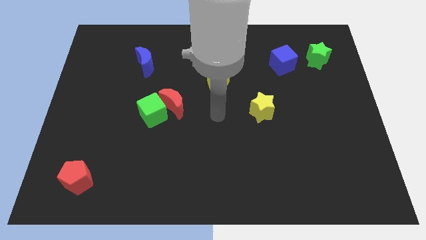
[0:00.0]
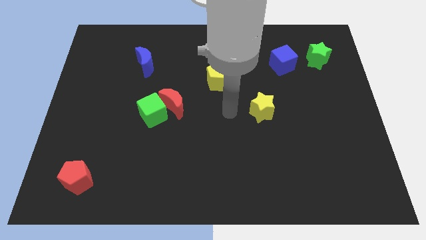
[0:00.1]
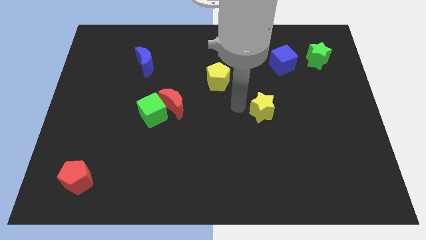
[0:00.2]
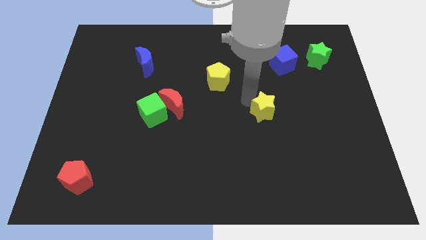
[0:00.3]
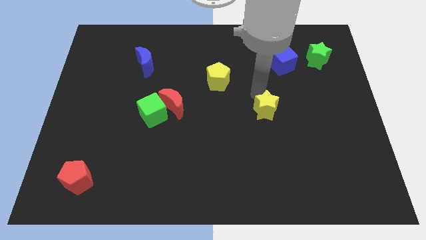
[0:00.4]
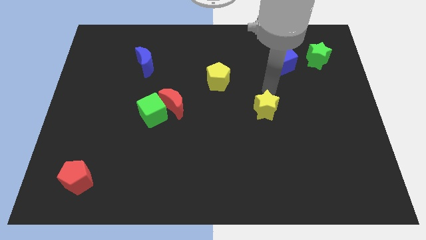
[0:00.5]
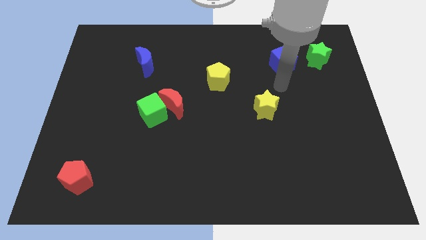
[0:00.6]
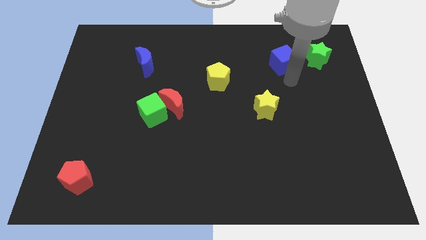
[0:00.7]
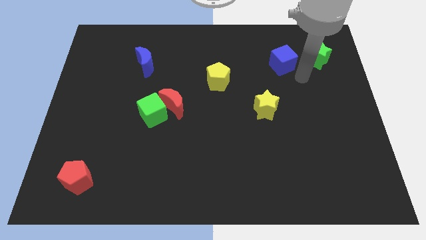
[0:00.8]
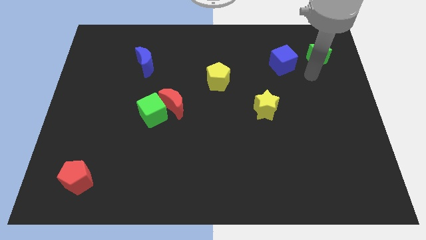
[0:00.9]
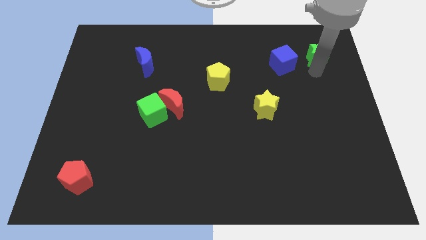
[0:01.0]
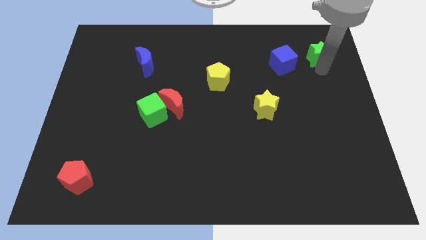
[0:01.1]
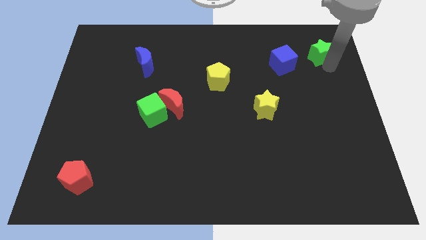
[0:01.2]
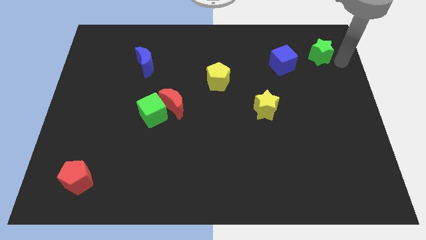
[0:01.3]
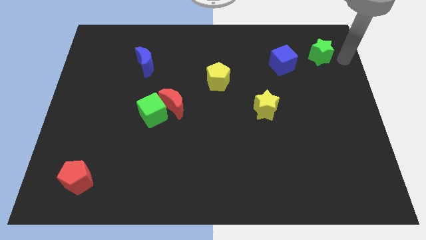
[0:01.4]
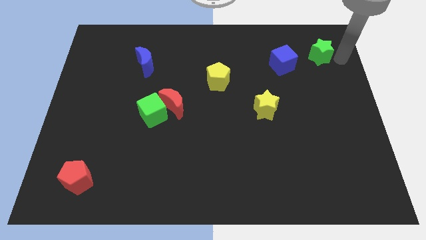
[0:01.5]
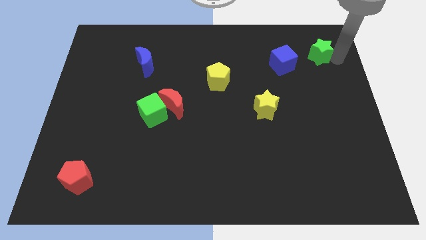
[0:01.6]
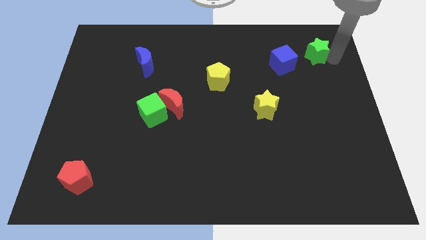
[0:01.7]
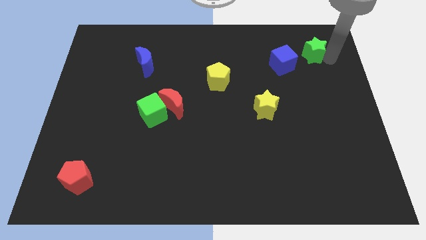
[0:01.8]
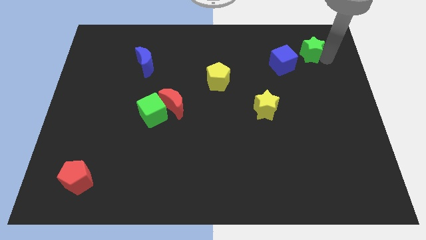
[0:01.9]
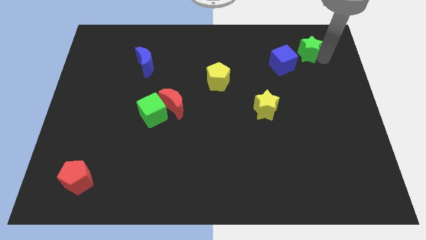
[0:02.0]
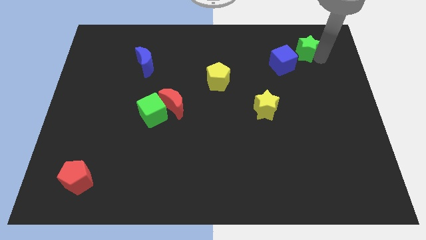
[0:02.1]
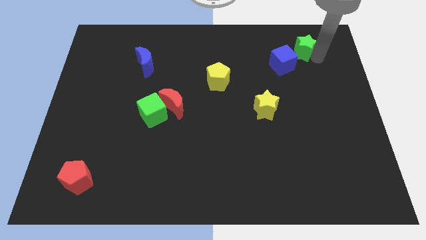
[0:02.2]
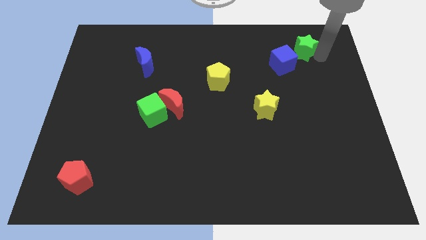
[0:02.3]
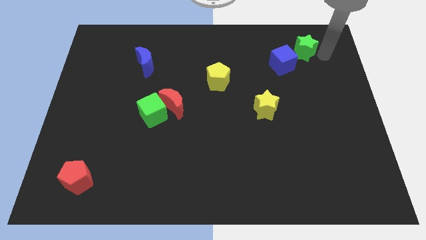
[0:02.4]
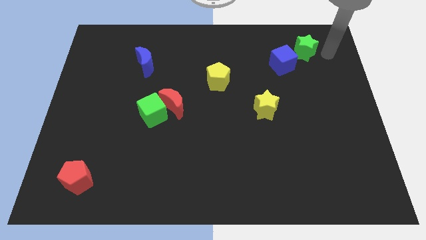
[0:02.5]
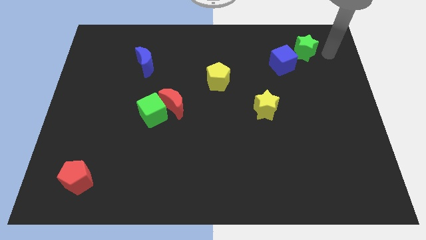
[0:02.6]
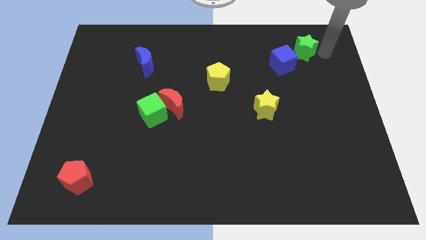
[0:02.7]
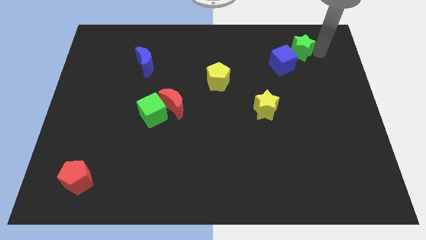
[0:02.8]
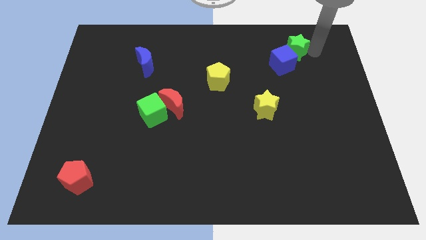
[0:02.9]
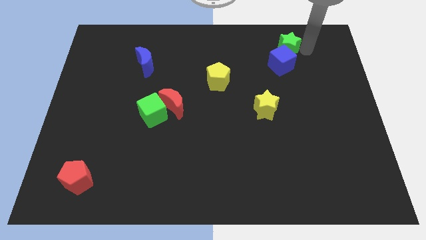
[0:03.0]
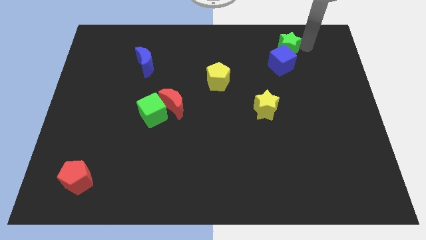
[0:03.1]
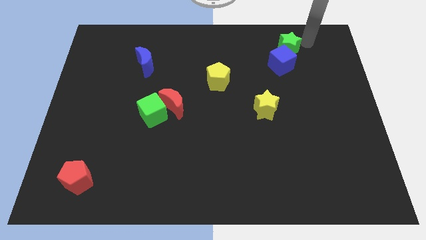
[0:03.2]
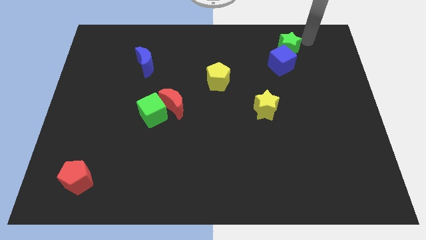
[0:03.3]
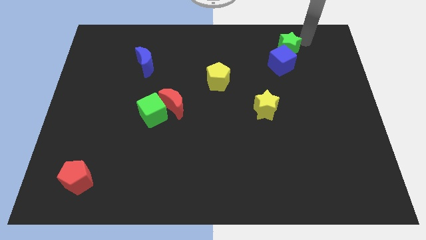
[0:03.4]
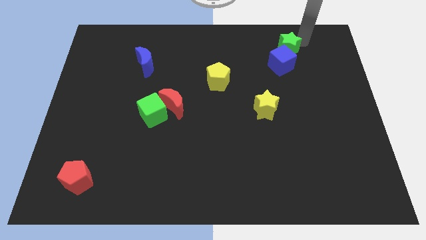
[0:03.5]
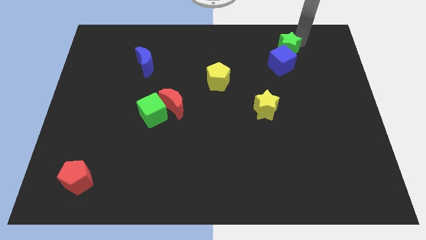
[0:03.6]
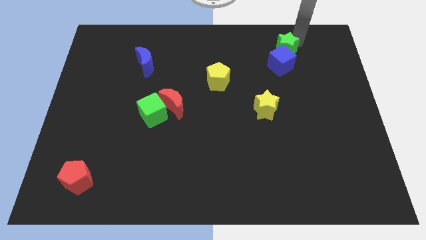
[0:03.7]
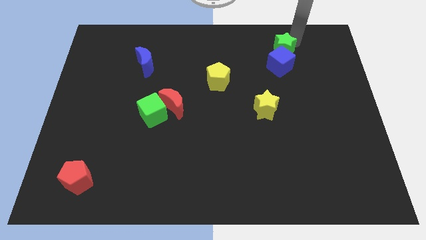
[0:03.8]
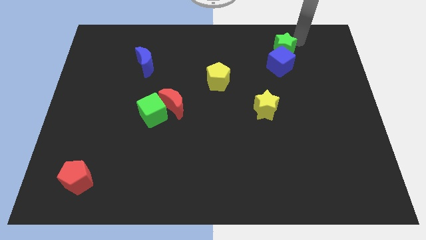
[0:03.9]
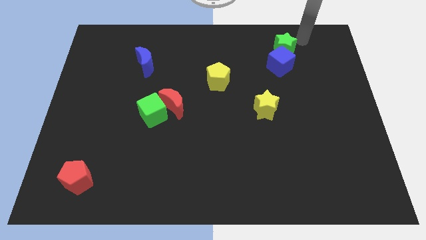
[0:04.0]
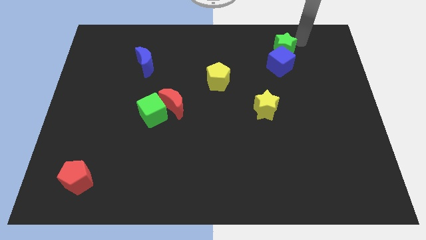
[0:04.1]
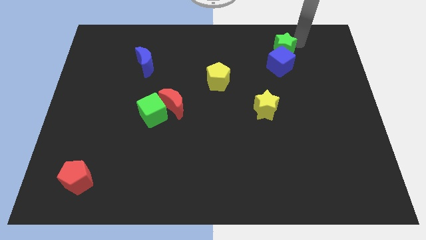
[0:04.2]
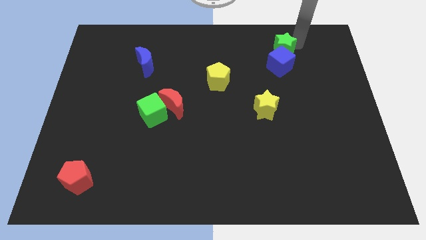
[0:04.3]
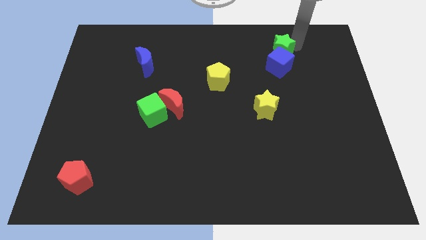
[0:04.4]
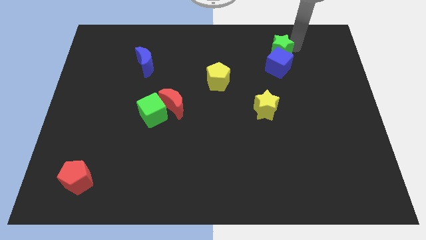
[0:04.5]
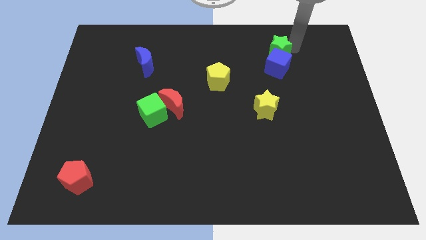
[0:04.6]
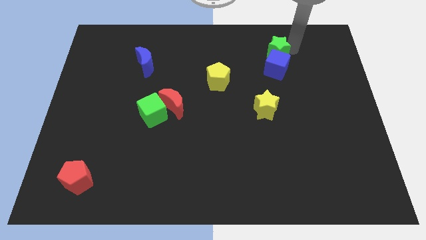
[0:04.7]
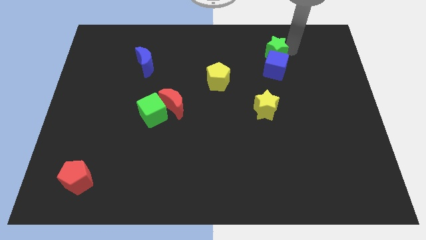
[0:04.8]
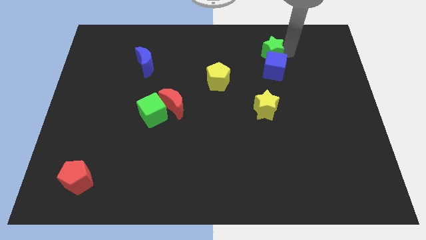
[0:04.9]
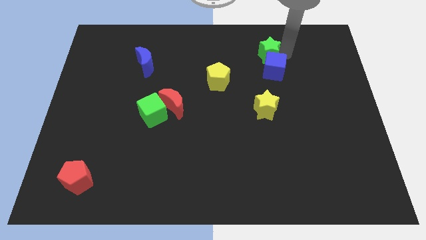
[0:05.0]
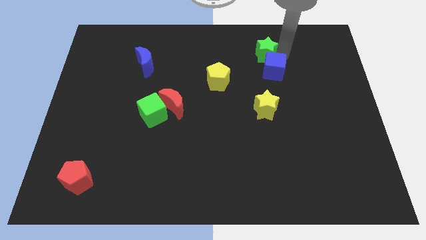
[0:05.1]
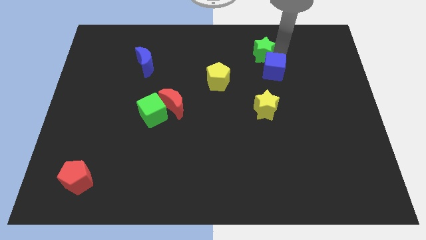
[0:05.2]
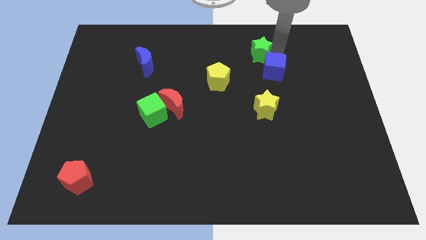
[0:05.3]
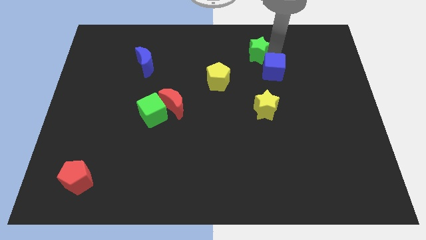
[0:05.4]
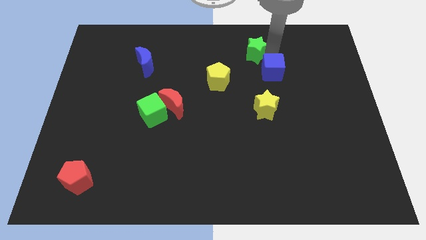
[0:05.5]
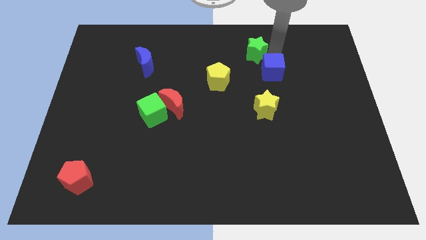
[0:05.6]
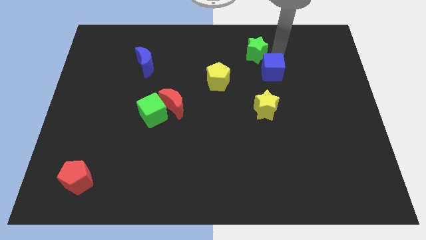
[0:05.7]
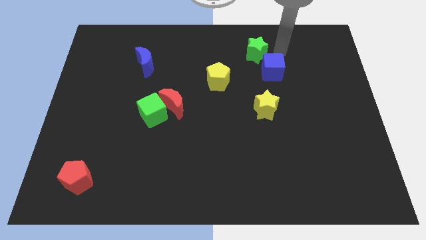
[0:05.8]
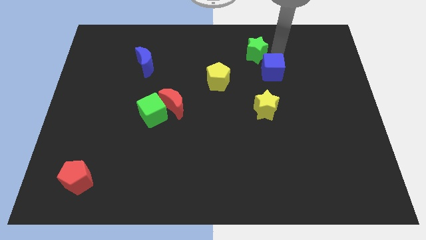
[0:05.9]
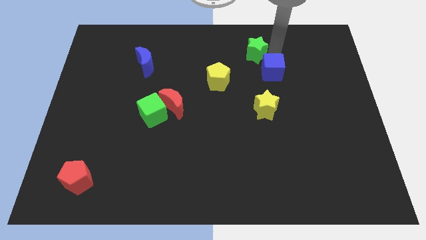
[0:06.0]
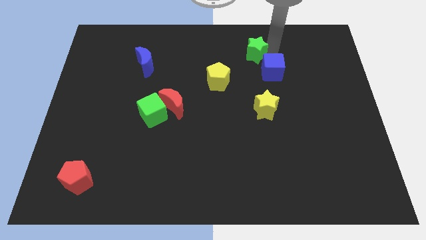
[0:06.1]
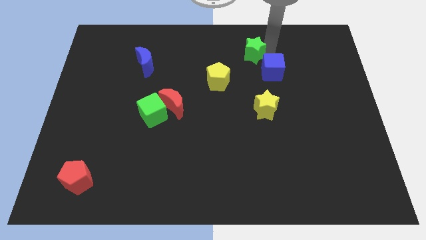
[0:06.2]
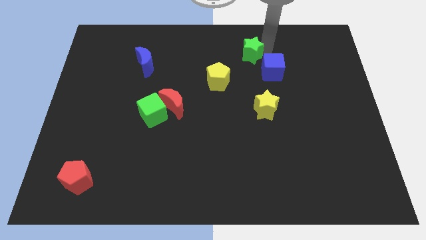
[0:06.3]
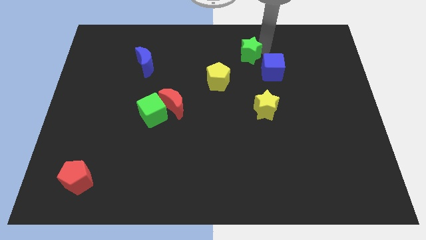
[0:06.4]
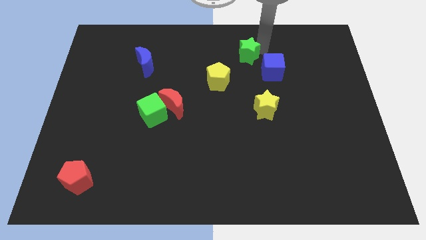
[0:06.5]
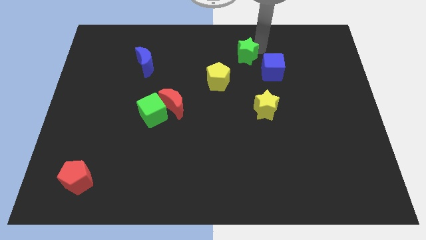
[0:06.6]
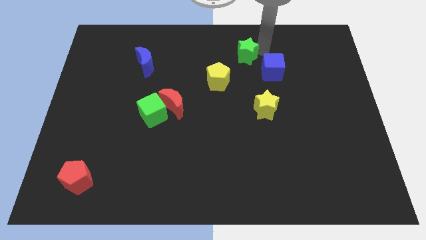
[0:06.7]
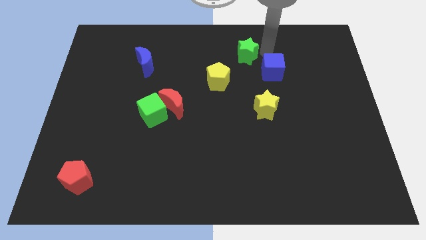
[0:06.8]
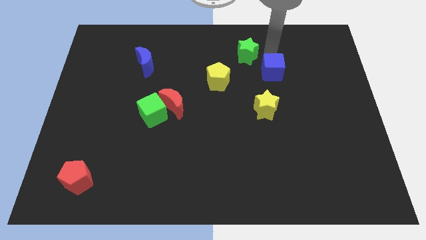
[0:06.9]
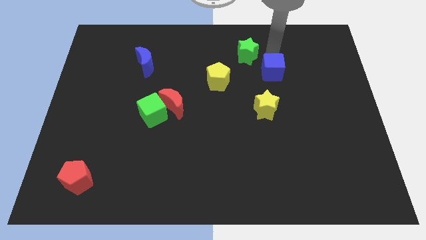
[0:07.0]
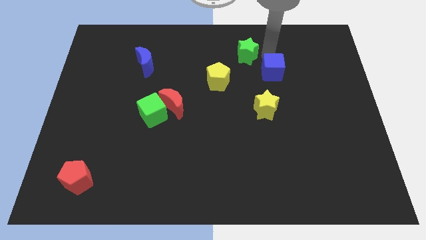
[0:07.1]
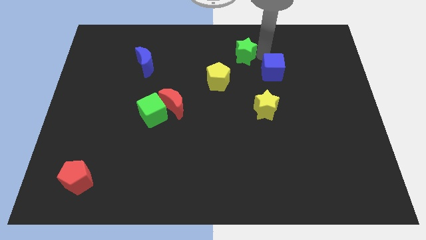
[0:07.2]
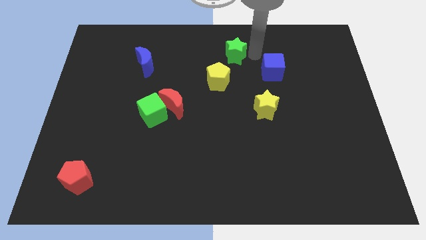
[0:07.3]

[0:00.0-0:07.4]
push the green star to the left

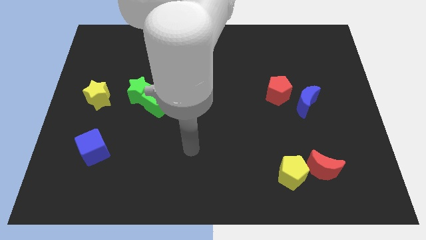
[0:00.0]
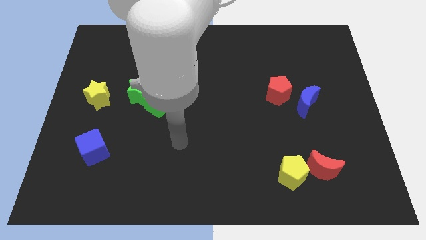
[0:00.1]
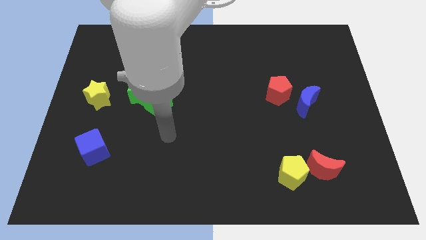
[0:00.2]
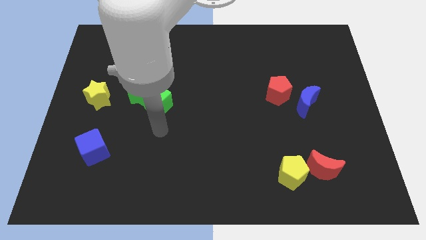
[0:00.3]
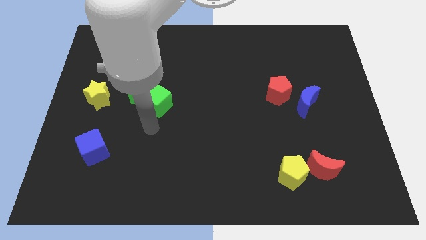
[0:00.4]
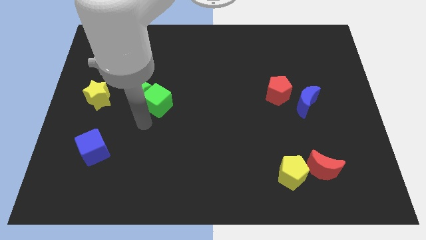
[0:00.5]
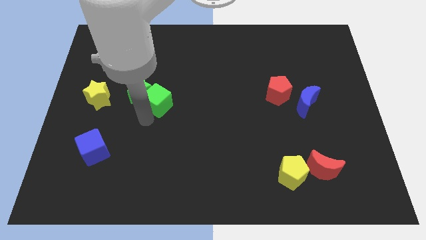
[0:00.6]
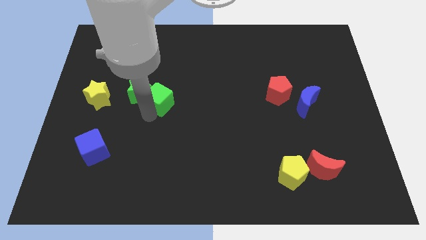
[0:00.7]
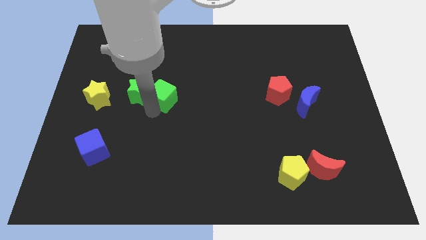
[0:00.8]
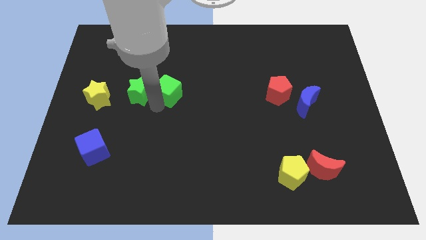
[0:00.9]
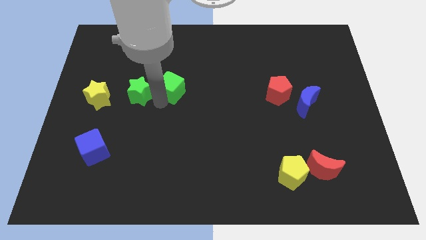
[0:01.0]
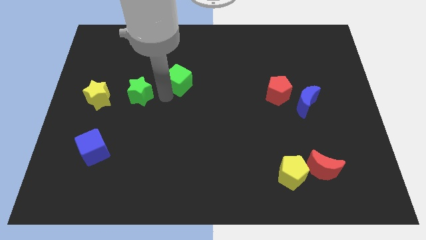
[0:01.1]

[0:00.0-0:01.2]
move the green cube upwards and then right a little
